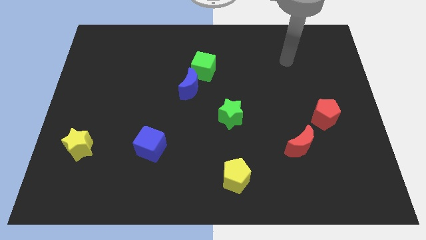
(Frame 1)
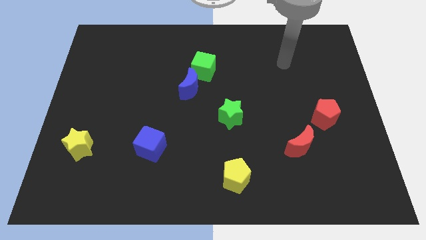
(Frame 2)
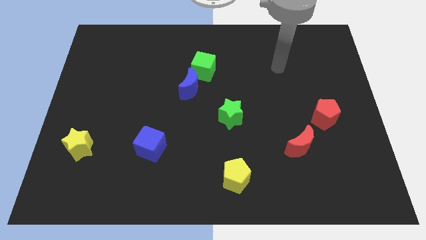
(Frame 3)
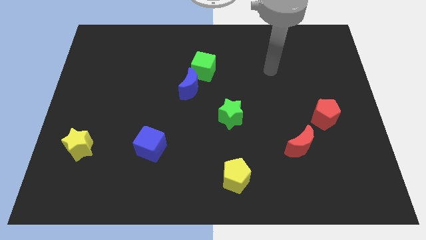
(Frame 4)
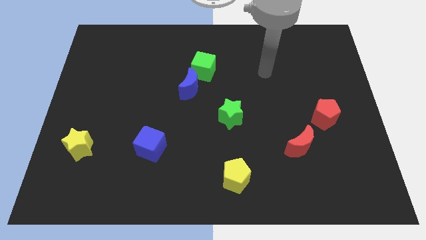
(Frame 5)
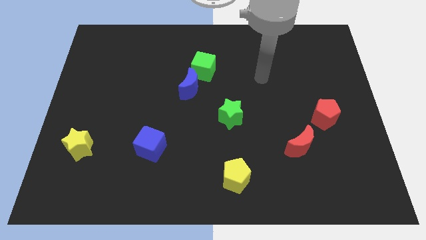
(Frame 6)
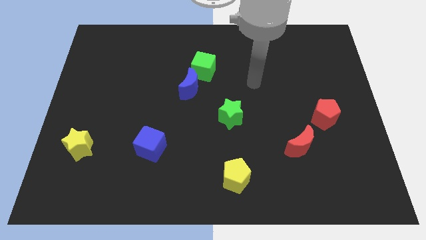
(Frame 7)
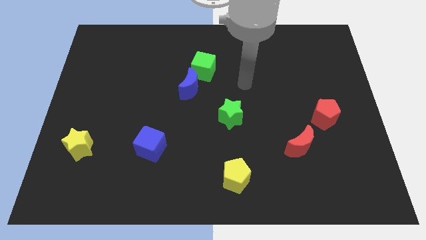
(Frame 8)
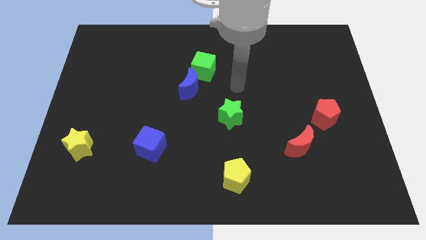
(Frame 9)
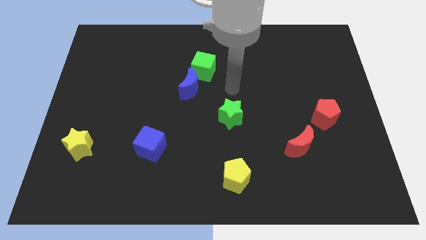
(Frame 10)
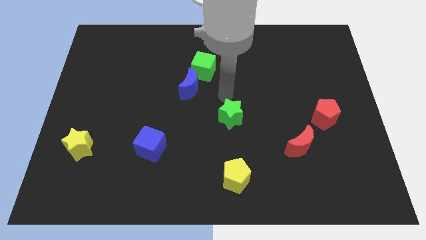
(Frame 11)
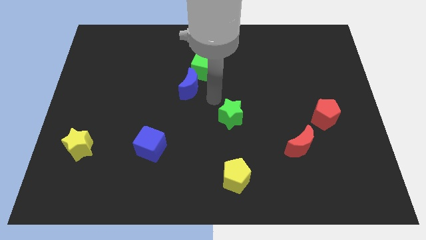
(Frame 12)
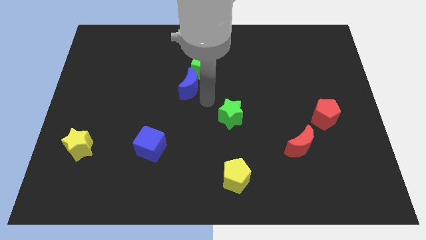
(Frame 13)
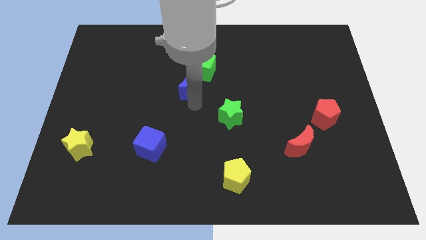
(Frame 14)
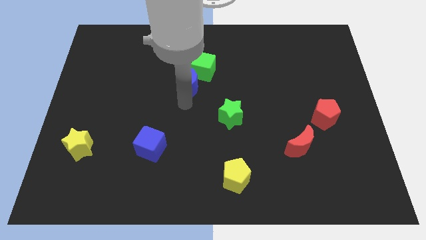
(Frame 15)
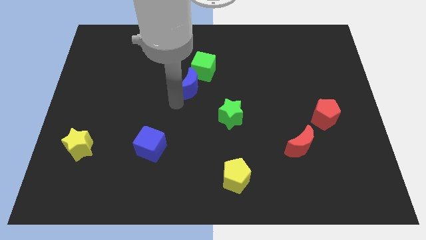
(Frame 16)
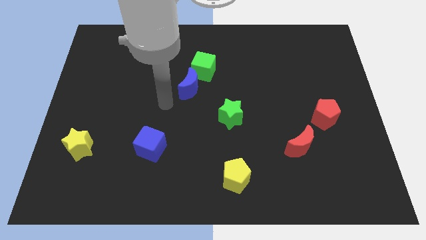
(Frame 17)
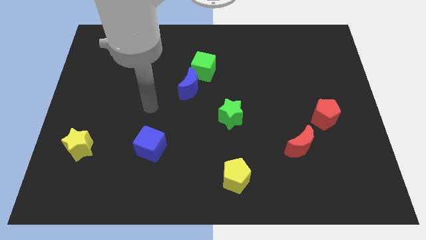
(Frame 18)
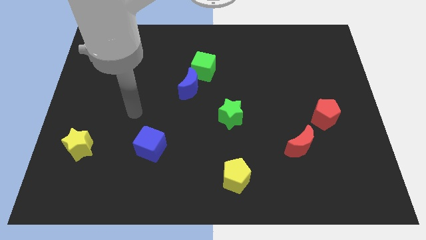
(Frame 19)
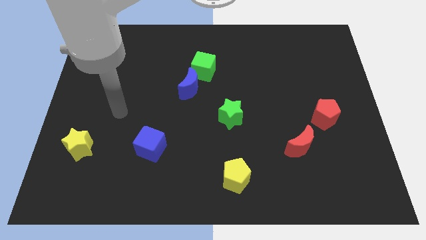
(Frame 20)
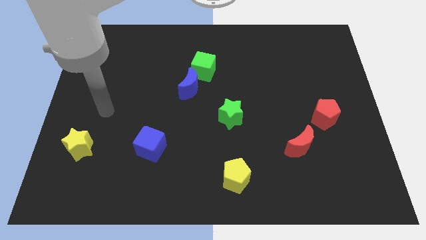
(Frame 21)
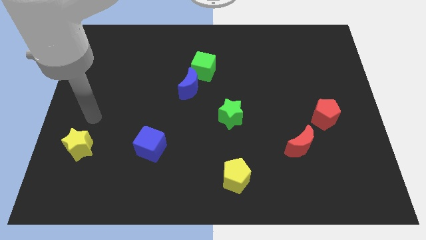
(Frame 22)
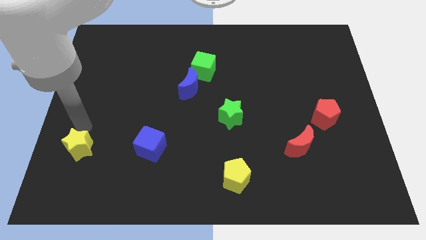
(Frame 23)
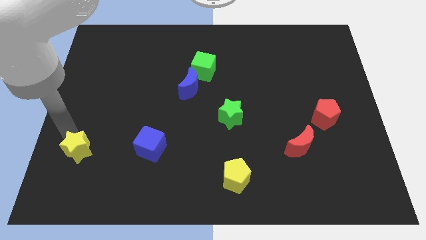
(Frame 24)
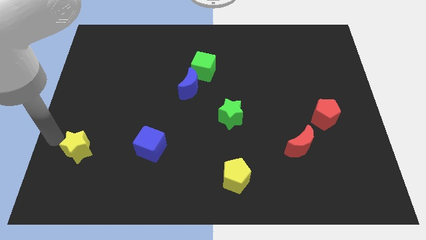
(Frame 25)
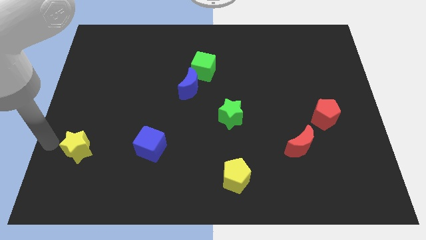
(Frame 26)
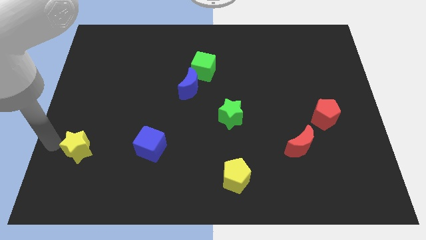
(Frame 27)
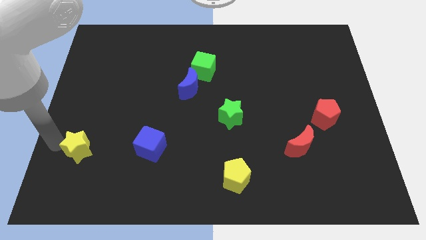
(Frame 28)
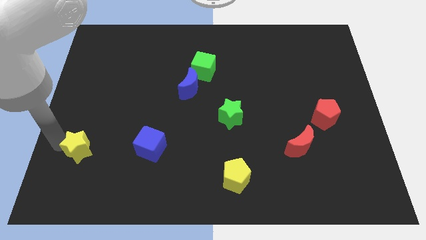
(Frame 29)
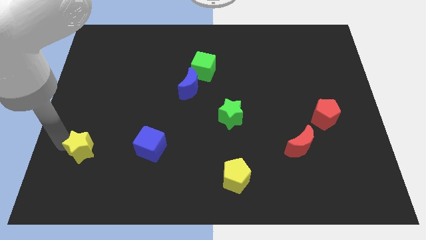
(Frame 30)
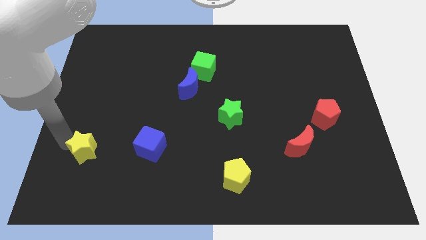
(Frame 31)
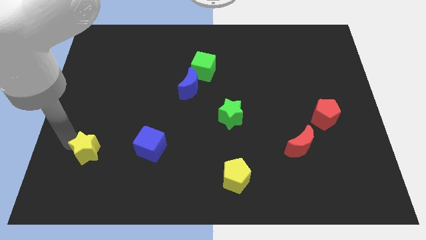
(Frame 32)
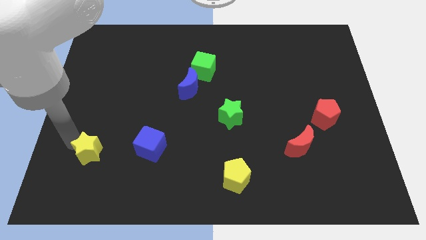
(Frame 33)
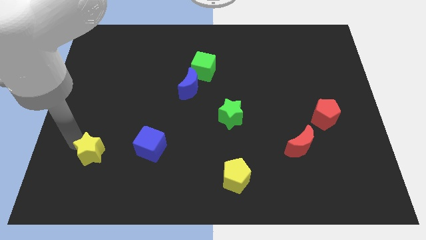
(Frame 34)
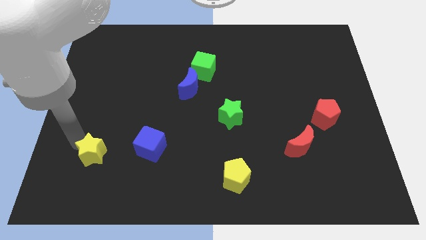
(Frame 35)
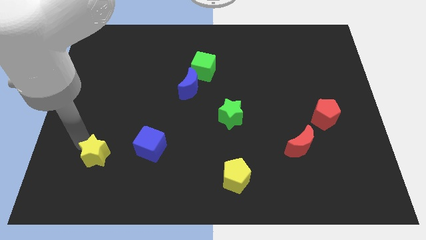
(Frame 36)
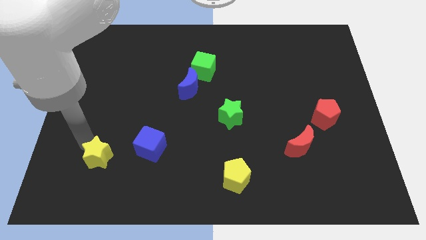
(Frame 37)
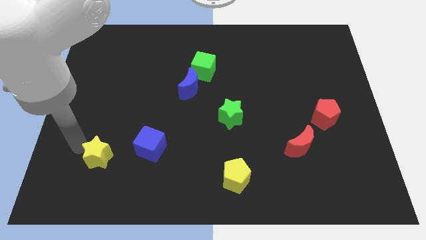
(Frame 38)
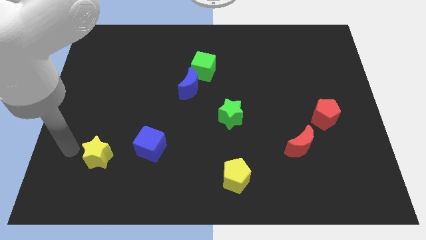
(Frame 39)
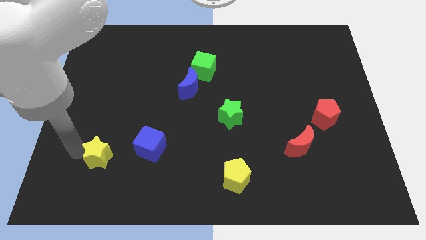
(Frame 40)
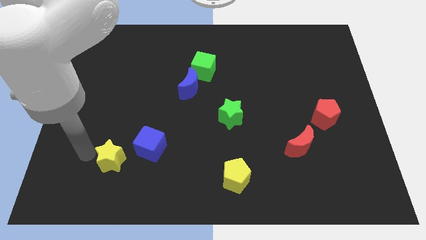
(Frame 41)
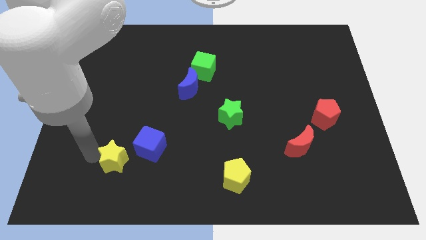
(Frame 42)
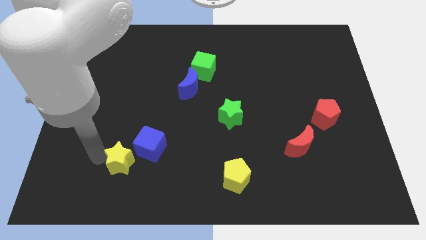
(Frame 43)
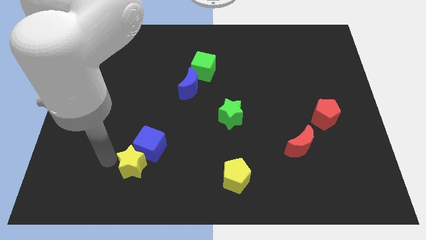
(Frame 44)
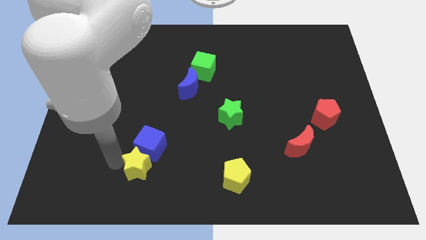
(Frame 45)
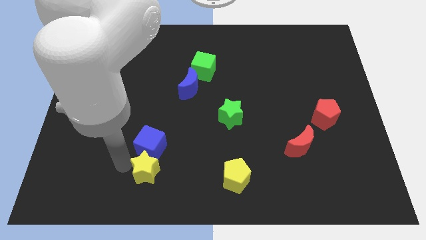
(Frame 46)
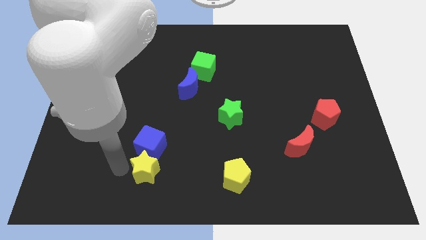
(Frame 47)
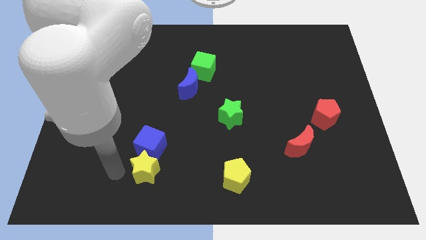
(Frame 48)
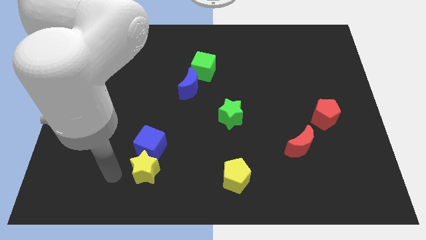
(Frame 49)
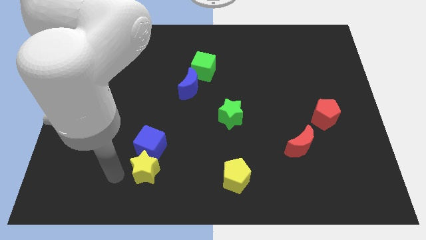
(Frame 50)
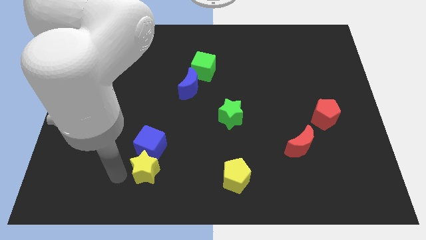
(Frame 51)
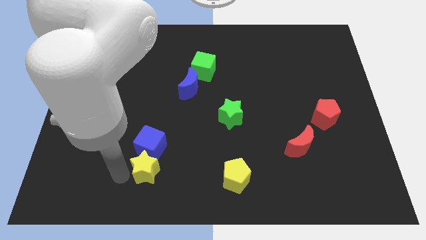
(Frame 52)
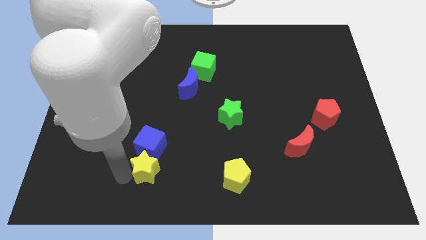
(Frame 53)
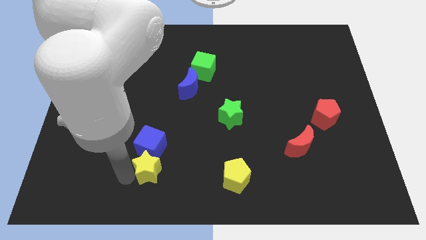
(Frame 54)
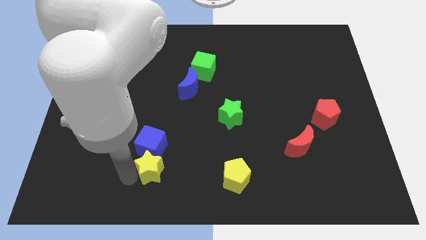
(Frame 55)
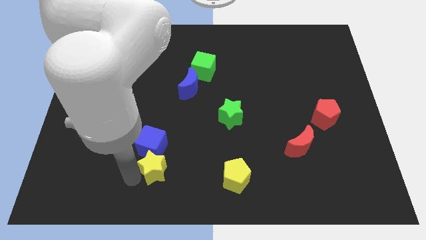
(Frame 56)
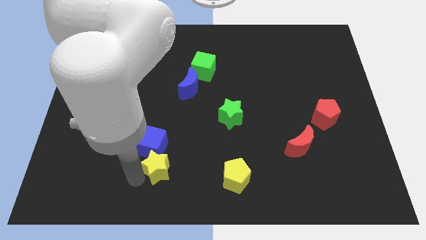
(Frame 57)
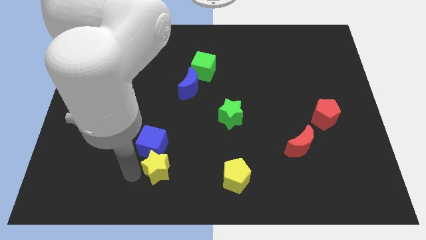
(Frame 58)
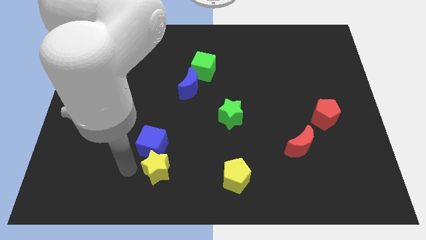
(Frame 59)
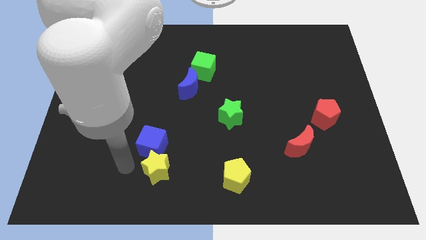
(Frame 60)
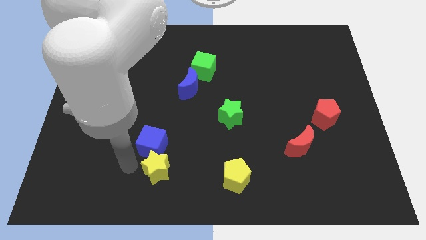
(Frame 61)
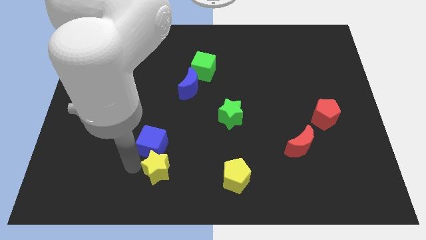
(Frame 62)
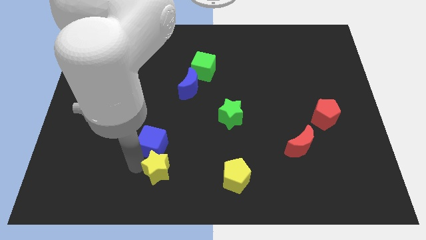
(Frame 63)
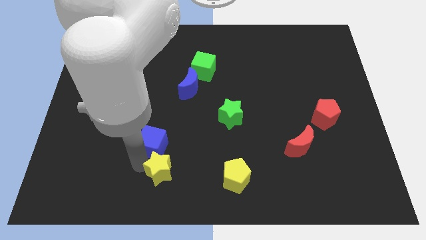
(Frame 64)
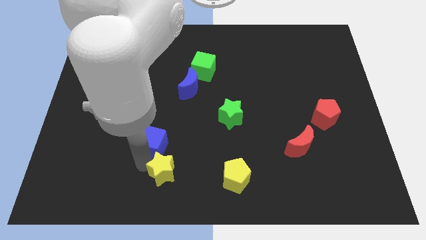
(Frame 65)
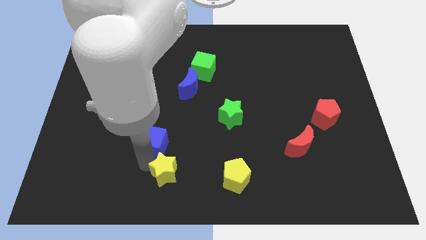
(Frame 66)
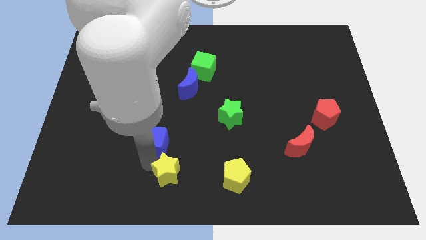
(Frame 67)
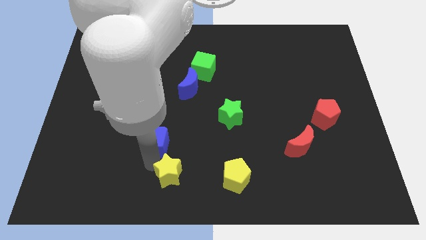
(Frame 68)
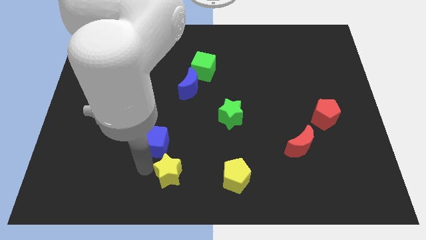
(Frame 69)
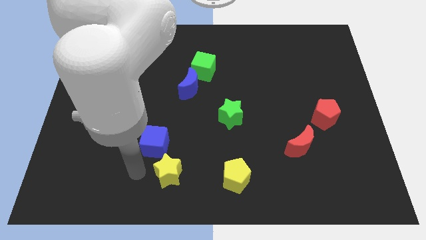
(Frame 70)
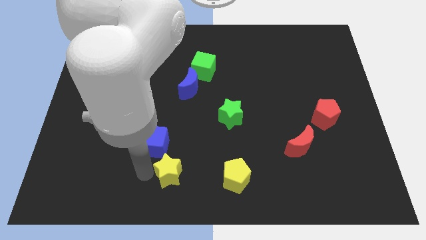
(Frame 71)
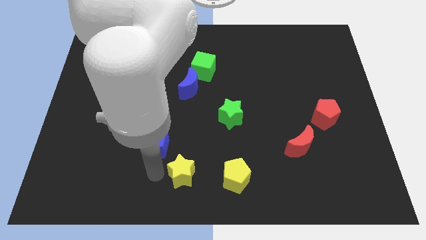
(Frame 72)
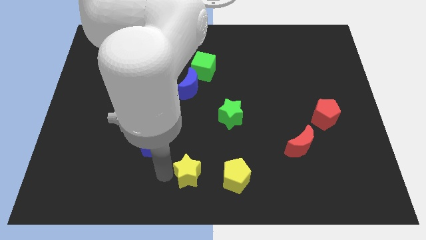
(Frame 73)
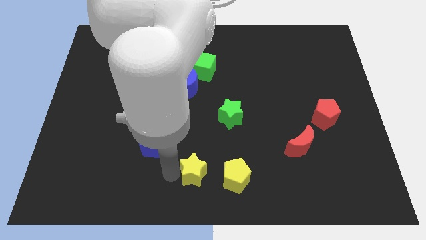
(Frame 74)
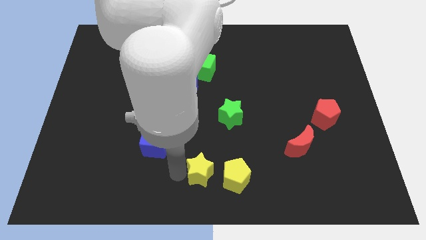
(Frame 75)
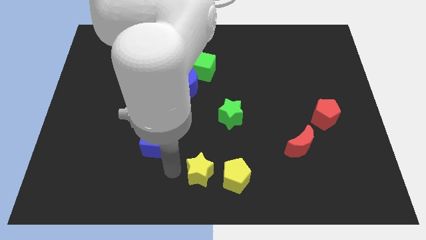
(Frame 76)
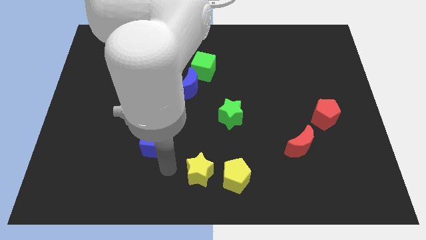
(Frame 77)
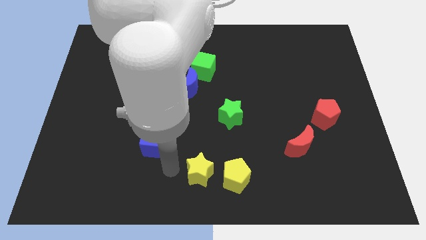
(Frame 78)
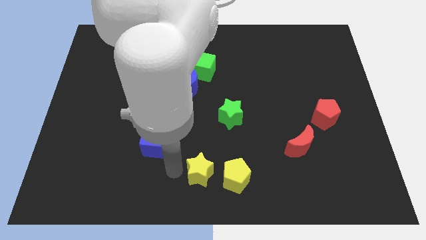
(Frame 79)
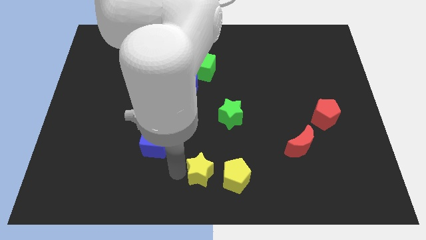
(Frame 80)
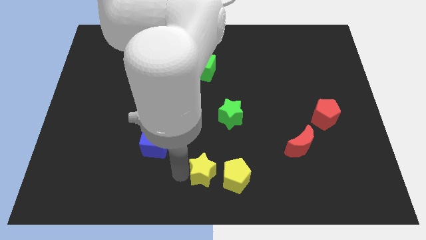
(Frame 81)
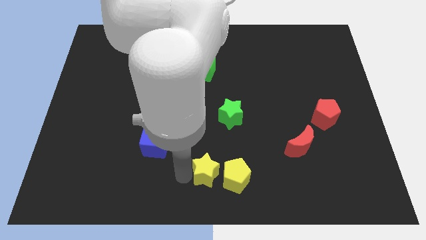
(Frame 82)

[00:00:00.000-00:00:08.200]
put the yellow star next to the yellow pentagon

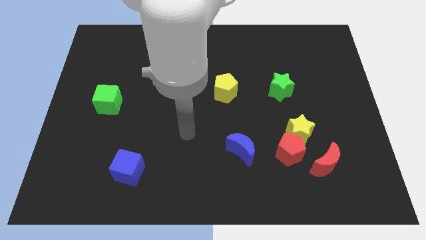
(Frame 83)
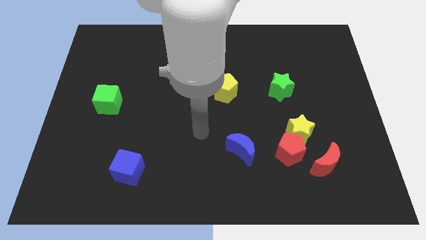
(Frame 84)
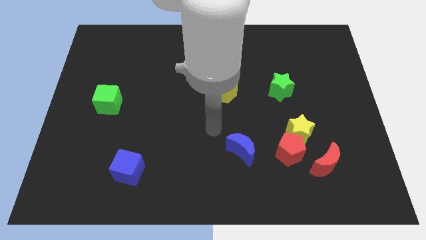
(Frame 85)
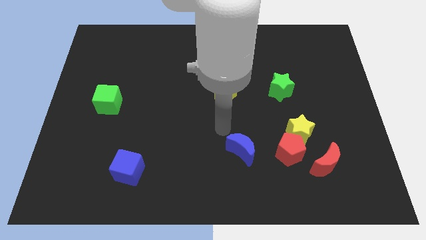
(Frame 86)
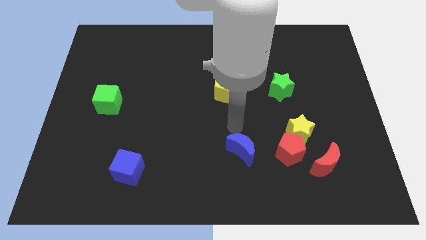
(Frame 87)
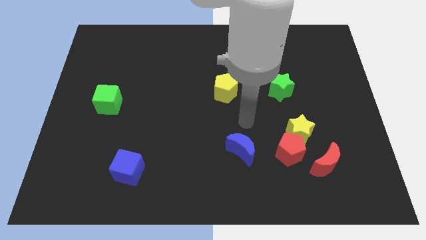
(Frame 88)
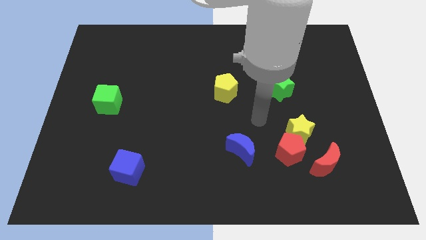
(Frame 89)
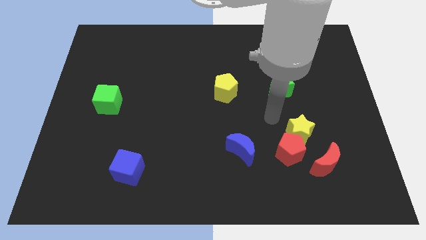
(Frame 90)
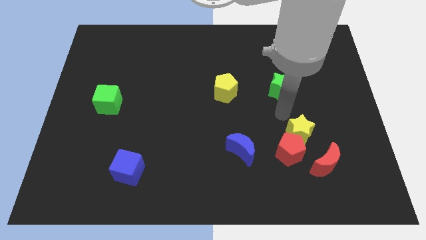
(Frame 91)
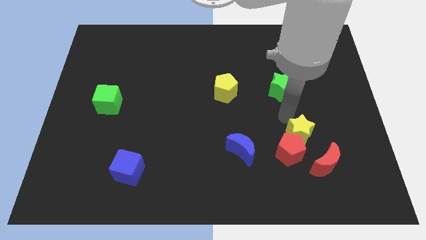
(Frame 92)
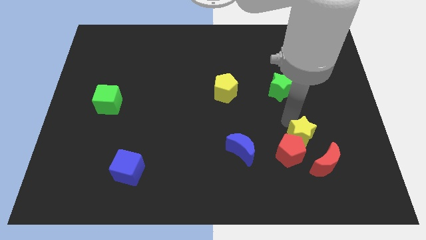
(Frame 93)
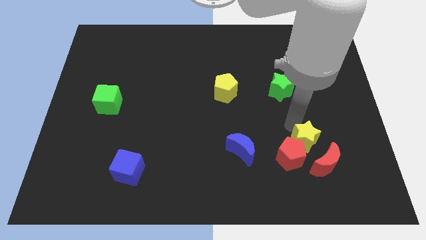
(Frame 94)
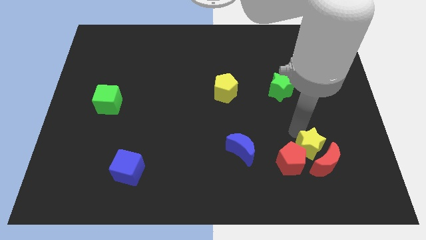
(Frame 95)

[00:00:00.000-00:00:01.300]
move the yellow star towards the red moon
